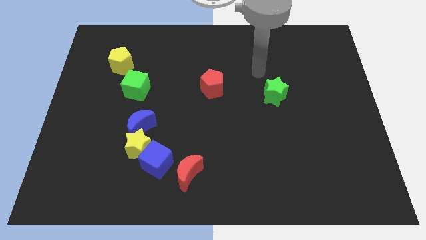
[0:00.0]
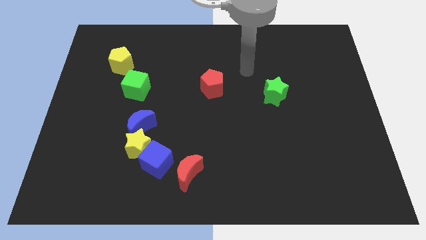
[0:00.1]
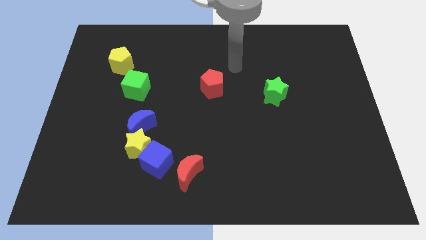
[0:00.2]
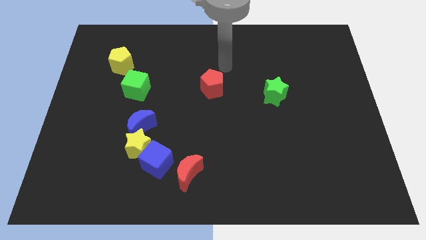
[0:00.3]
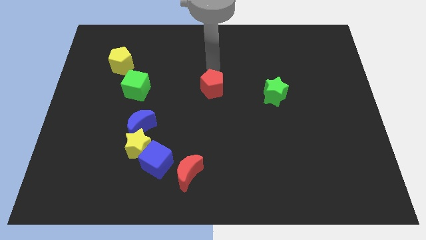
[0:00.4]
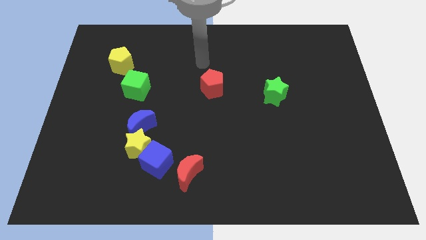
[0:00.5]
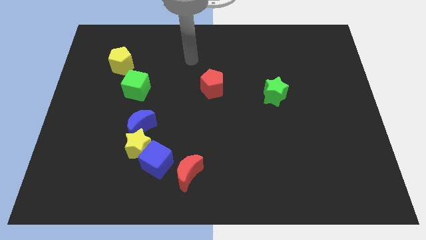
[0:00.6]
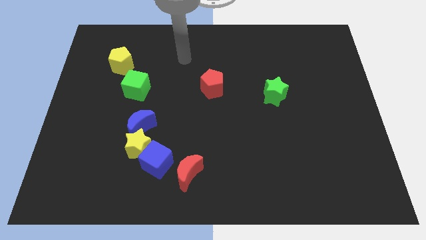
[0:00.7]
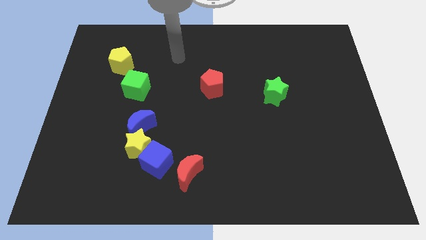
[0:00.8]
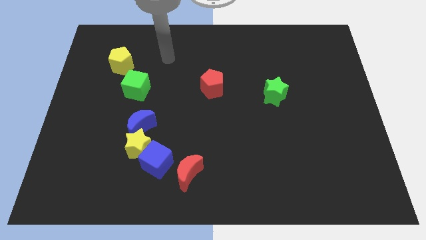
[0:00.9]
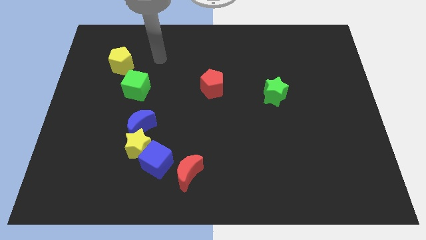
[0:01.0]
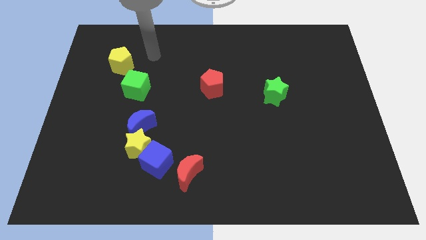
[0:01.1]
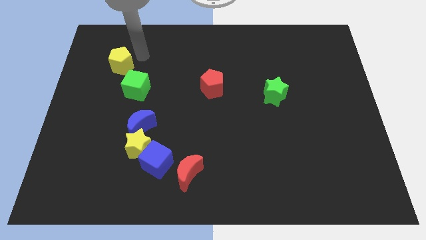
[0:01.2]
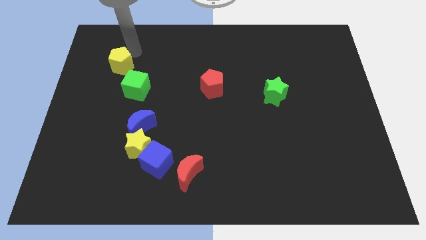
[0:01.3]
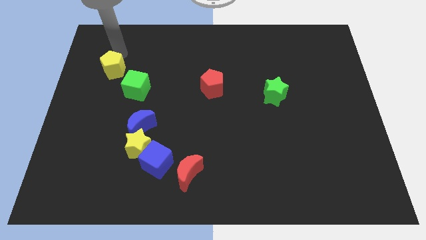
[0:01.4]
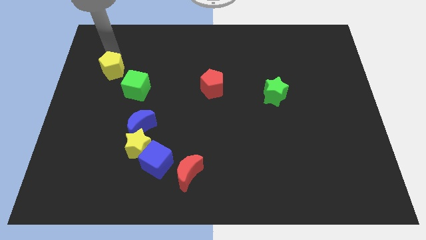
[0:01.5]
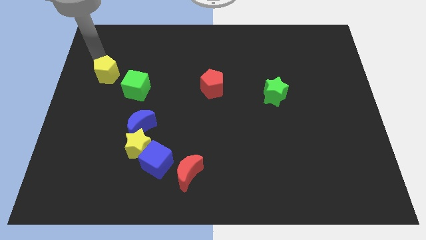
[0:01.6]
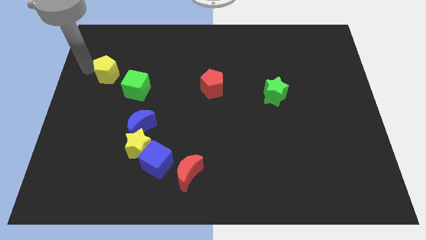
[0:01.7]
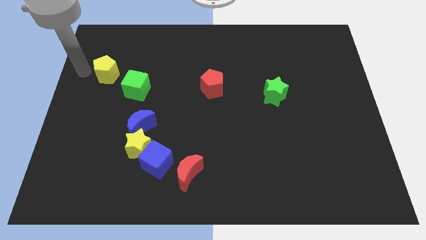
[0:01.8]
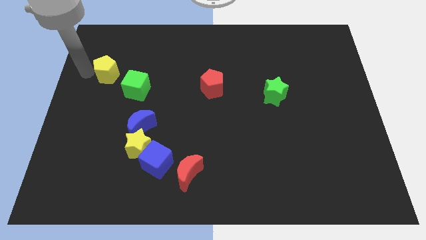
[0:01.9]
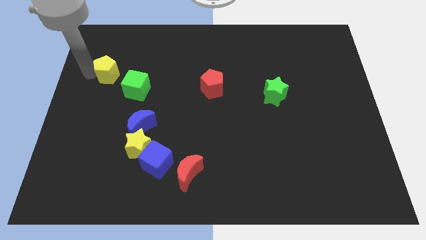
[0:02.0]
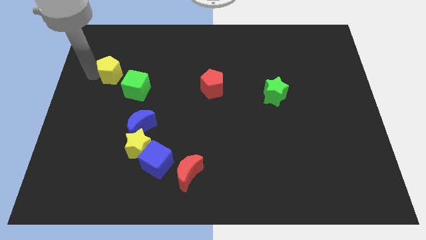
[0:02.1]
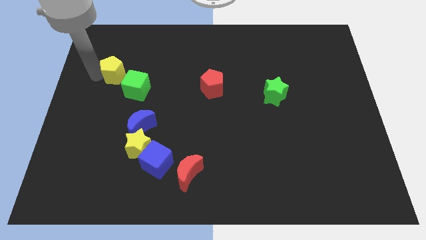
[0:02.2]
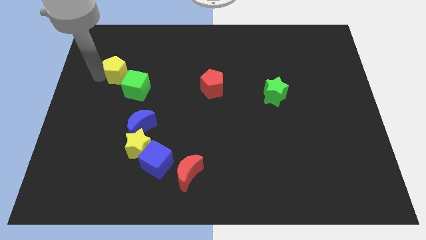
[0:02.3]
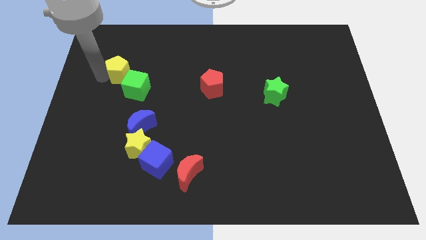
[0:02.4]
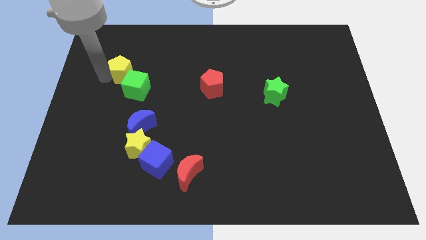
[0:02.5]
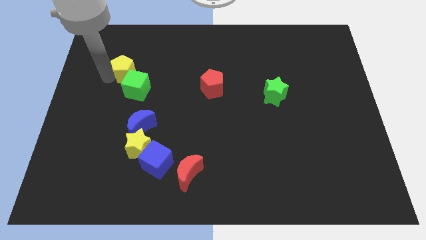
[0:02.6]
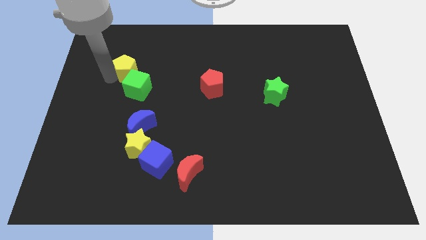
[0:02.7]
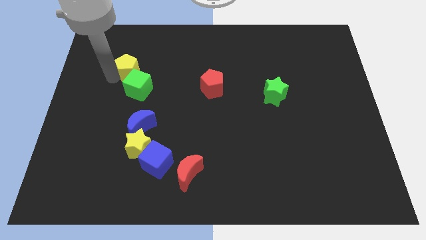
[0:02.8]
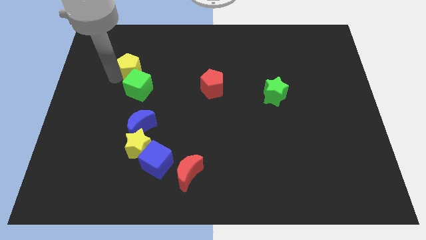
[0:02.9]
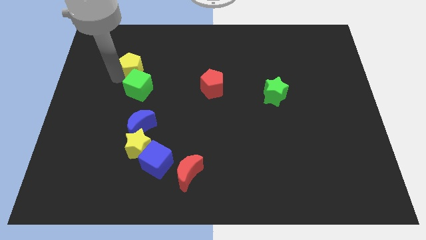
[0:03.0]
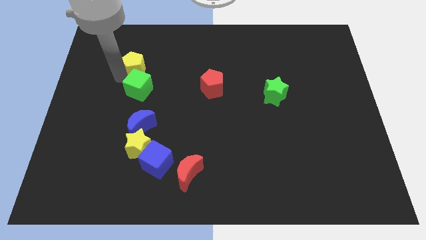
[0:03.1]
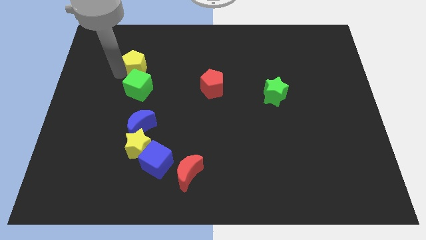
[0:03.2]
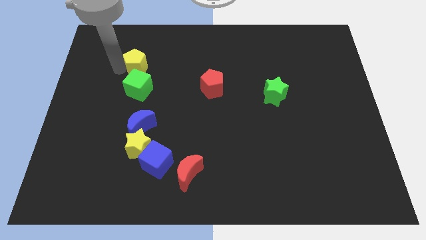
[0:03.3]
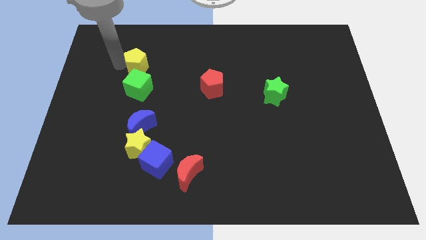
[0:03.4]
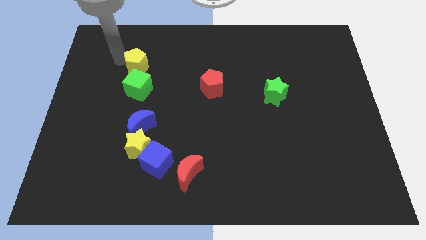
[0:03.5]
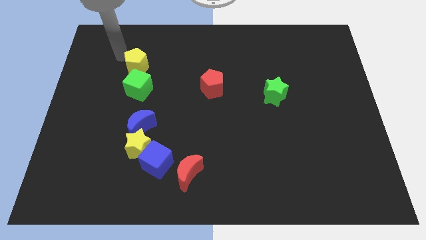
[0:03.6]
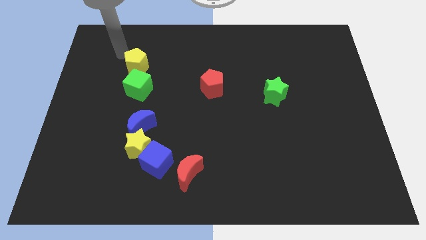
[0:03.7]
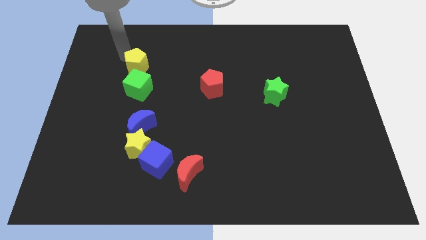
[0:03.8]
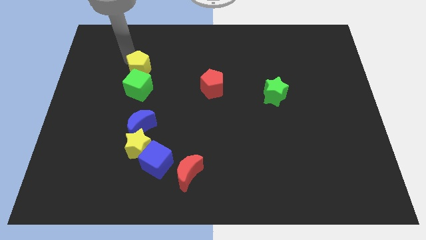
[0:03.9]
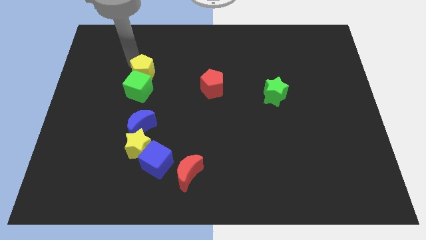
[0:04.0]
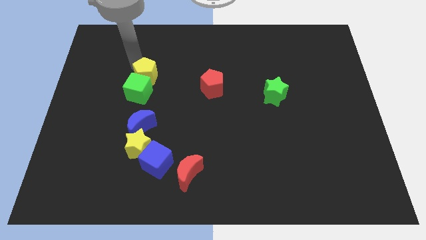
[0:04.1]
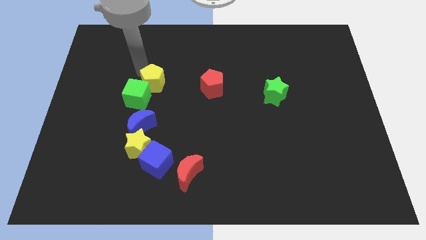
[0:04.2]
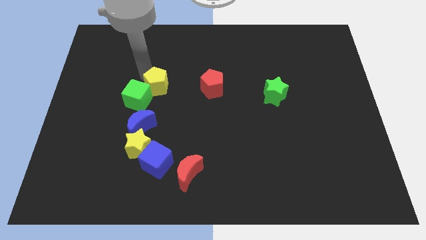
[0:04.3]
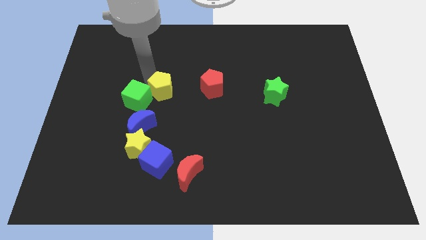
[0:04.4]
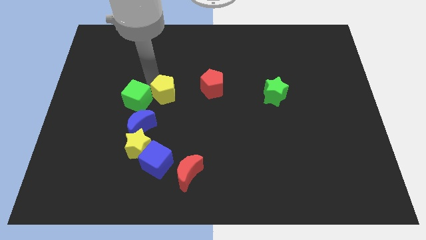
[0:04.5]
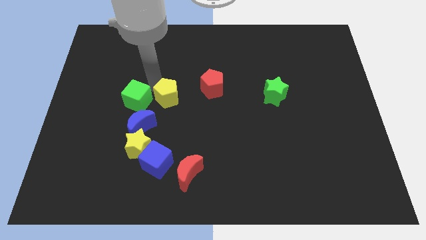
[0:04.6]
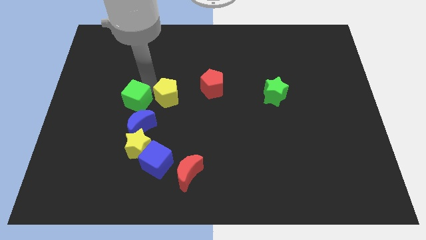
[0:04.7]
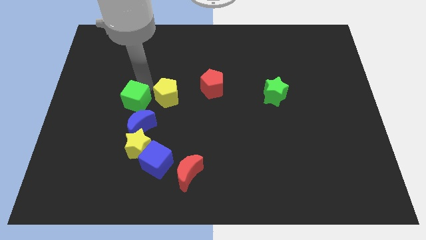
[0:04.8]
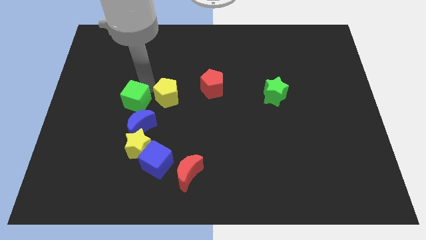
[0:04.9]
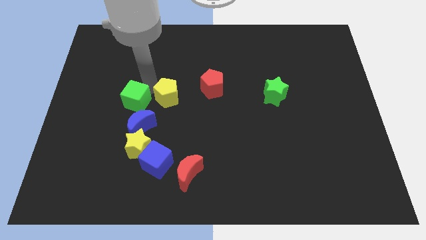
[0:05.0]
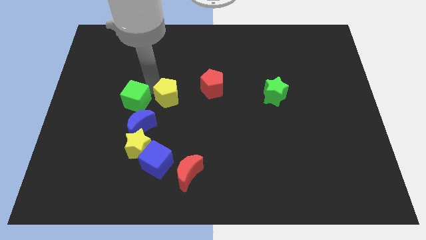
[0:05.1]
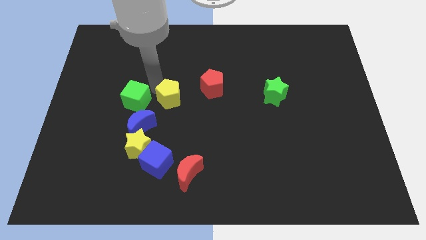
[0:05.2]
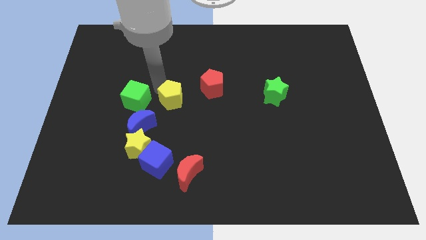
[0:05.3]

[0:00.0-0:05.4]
slide the yellow pentagon to the bottom left of the red pentagon

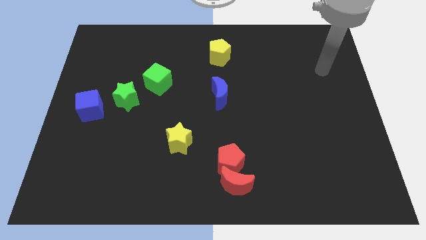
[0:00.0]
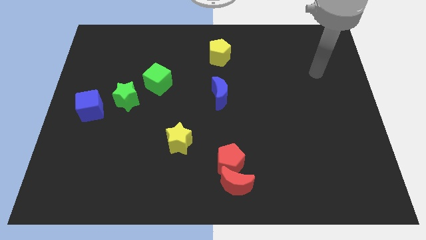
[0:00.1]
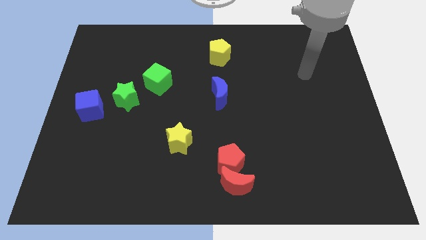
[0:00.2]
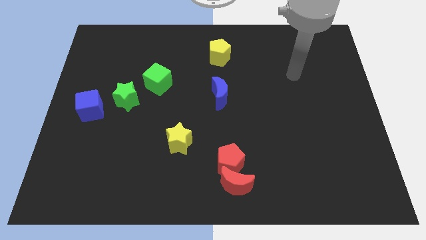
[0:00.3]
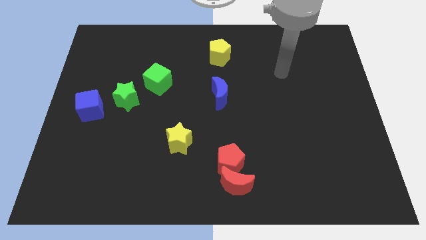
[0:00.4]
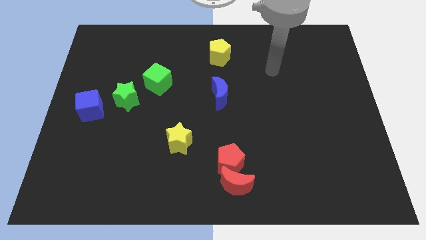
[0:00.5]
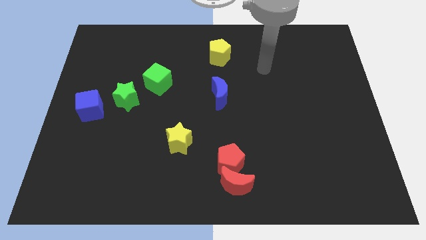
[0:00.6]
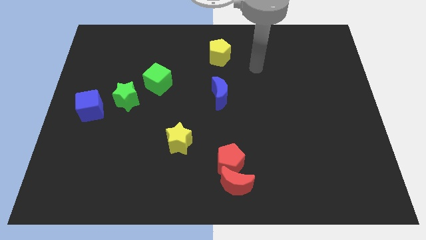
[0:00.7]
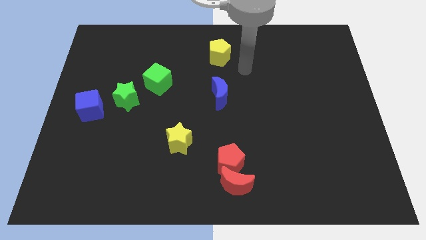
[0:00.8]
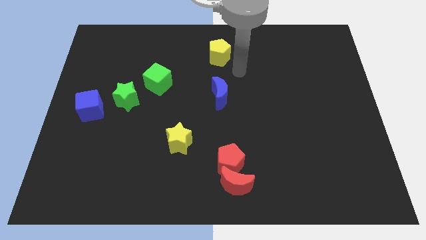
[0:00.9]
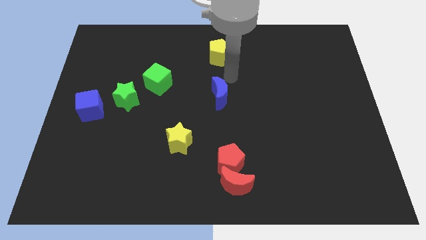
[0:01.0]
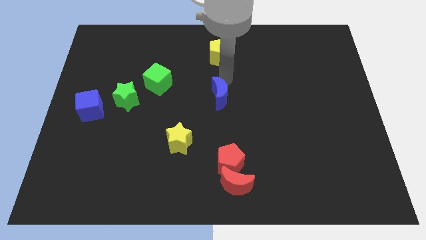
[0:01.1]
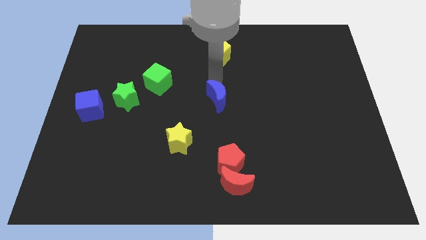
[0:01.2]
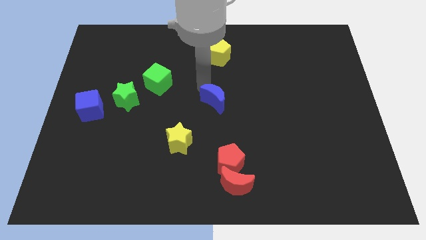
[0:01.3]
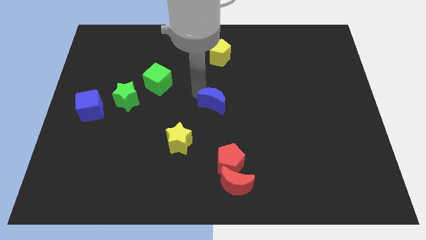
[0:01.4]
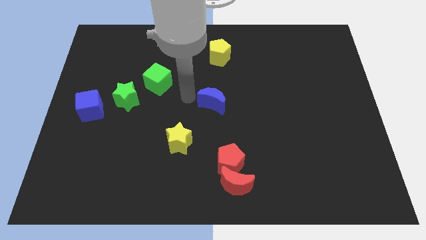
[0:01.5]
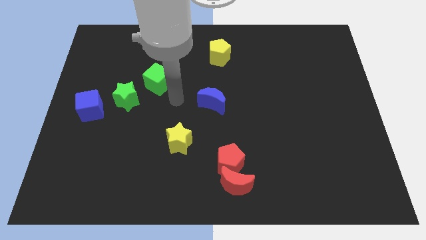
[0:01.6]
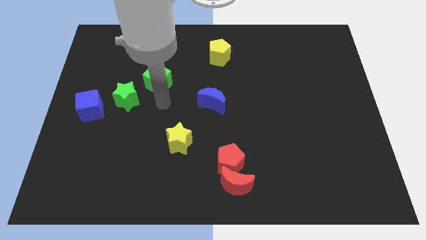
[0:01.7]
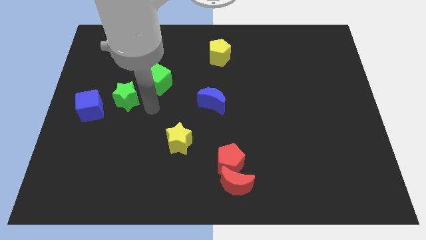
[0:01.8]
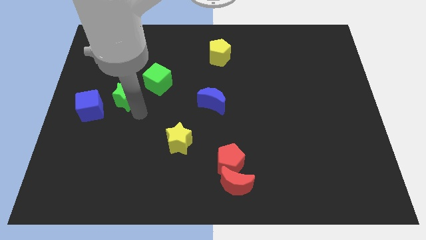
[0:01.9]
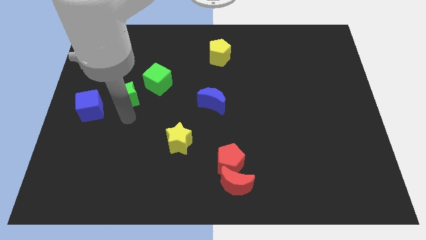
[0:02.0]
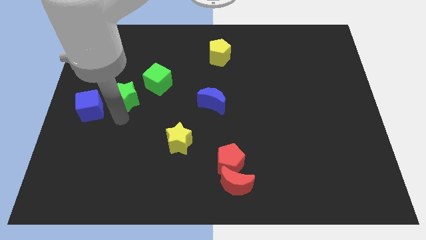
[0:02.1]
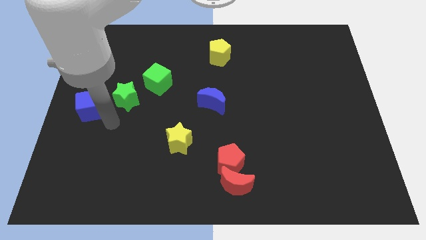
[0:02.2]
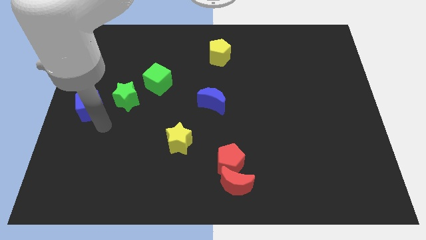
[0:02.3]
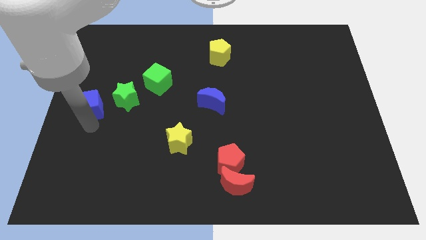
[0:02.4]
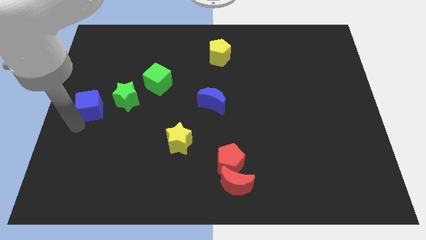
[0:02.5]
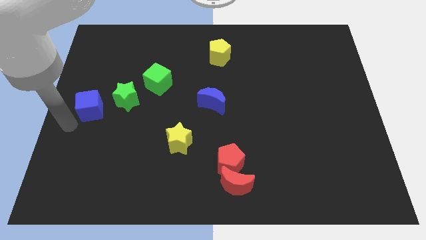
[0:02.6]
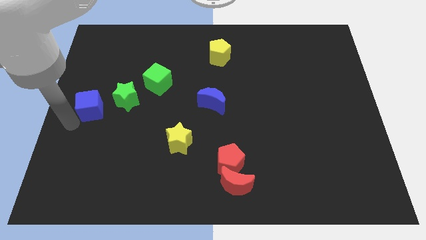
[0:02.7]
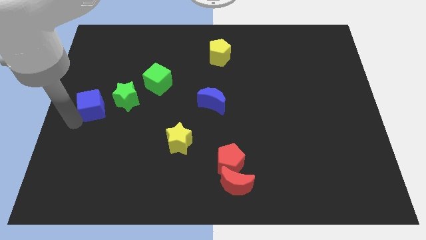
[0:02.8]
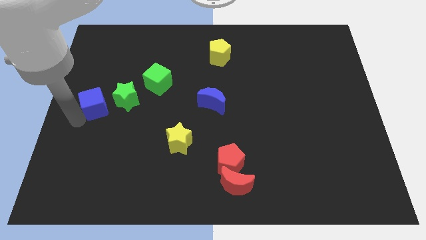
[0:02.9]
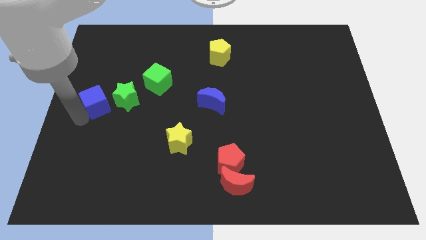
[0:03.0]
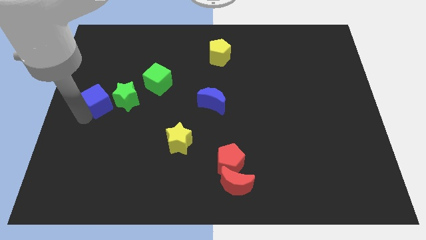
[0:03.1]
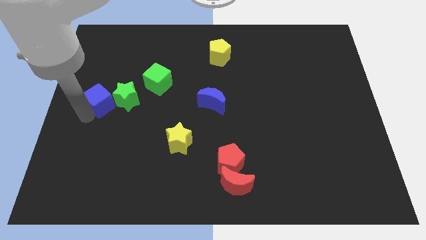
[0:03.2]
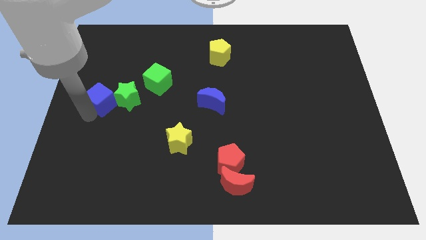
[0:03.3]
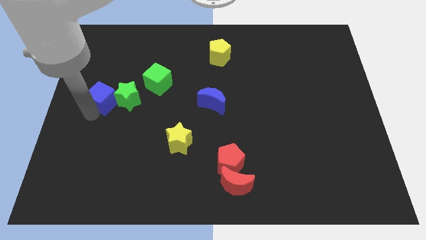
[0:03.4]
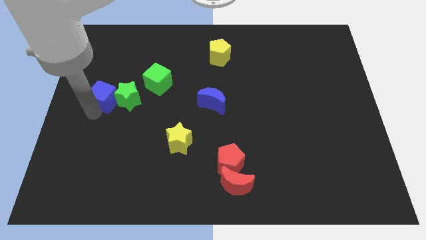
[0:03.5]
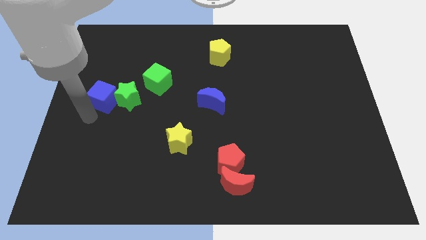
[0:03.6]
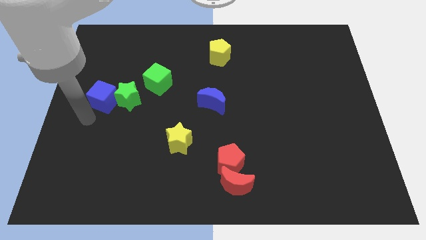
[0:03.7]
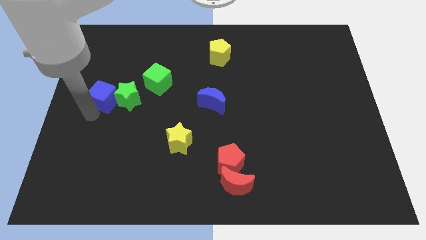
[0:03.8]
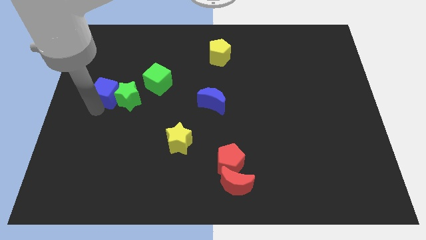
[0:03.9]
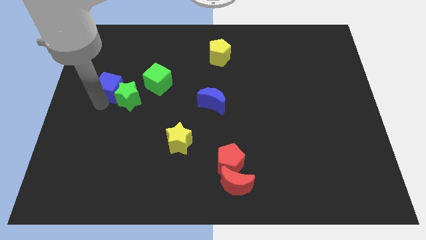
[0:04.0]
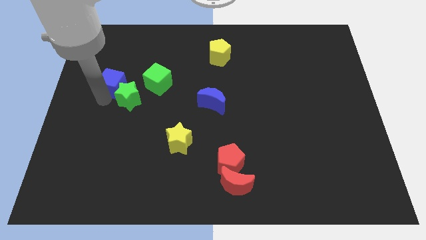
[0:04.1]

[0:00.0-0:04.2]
move the blue cube to the top of the green star
